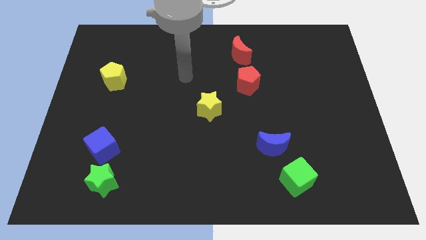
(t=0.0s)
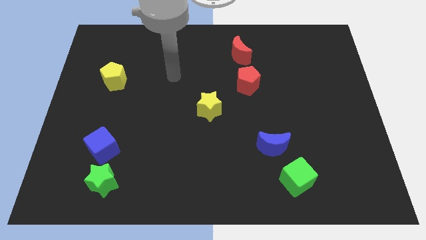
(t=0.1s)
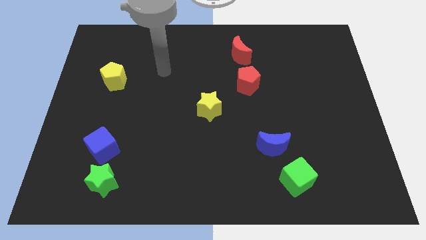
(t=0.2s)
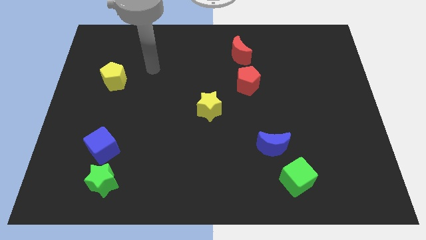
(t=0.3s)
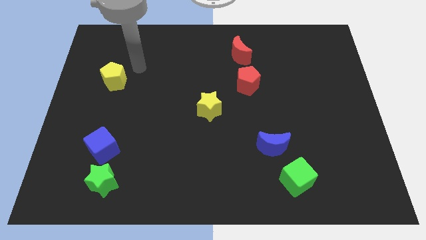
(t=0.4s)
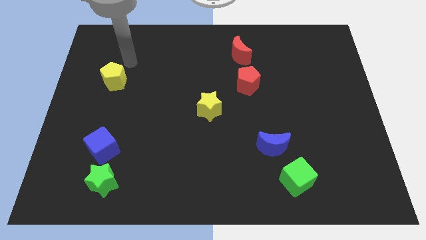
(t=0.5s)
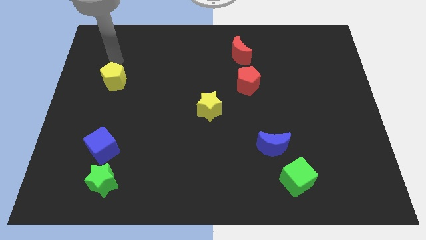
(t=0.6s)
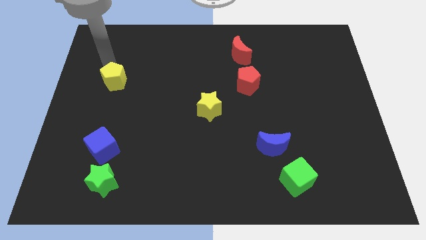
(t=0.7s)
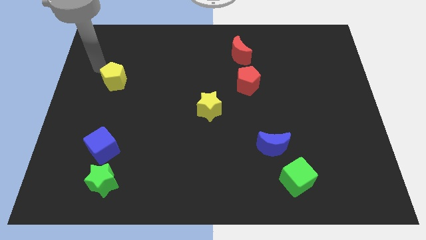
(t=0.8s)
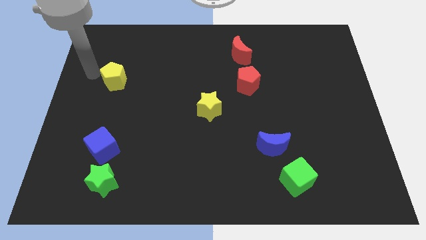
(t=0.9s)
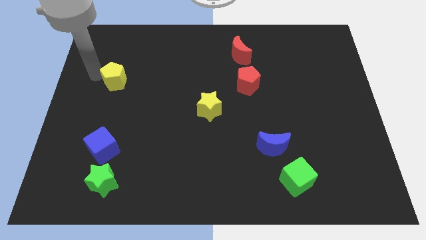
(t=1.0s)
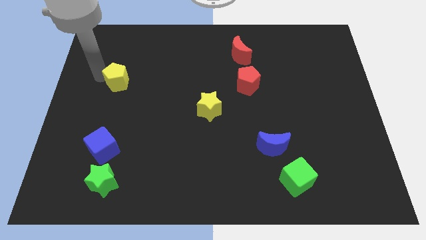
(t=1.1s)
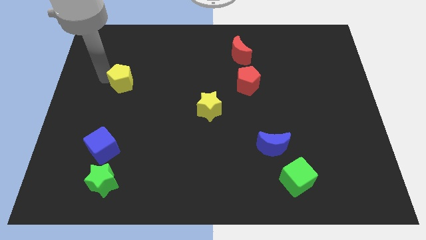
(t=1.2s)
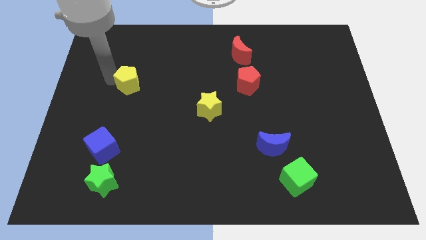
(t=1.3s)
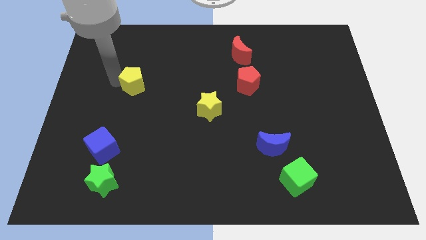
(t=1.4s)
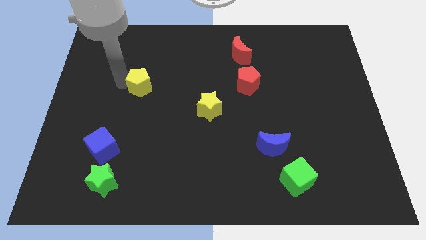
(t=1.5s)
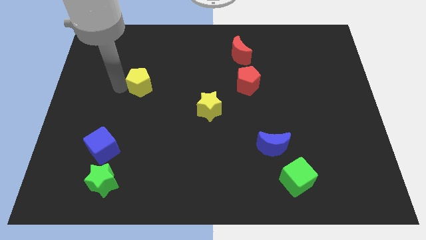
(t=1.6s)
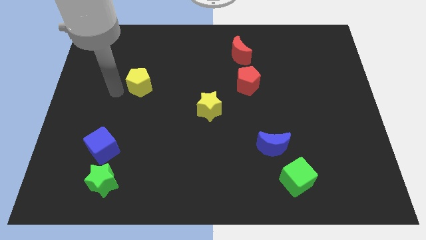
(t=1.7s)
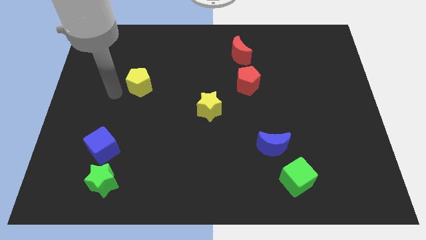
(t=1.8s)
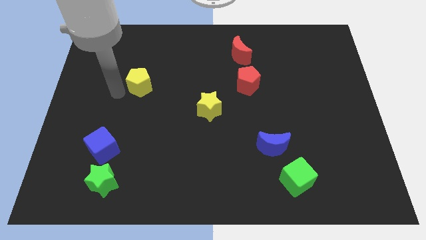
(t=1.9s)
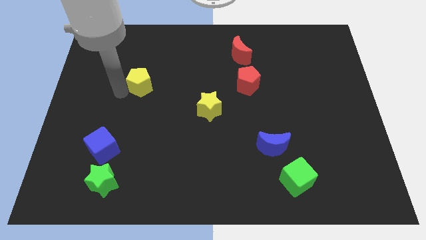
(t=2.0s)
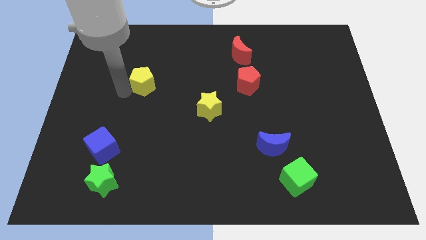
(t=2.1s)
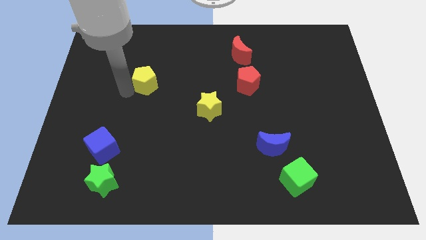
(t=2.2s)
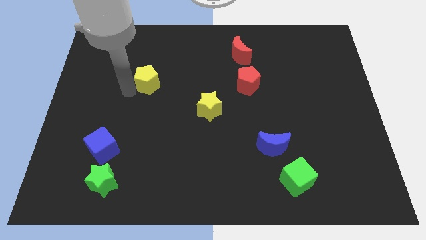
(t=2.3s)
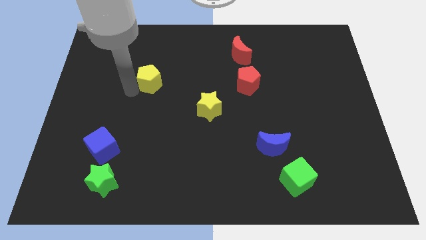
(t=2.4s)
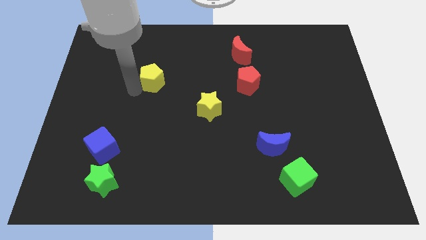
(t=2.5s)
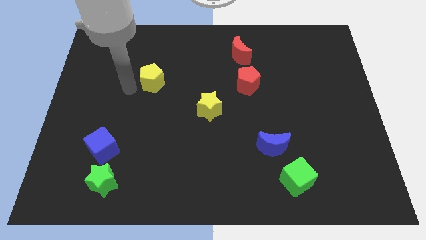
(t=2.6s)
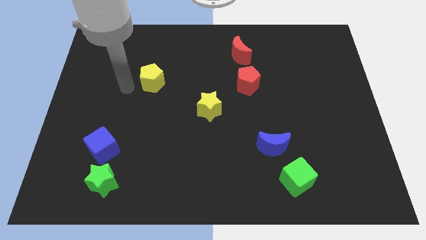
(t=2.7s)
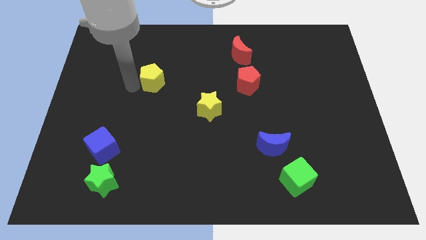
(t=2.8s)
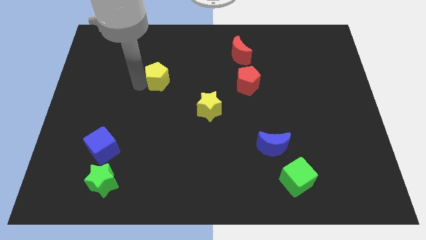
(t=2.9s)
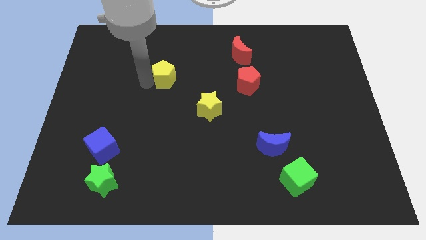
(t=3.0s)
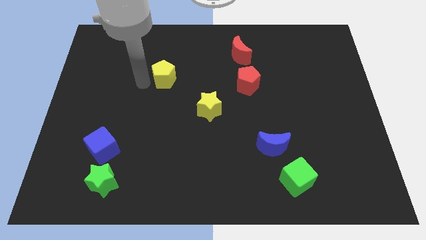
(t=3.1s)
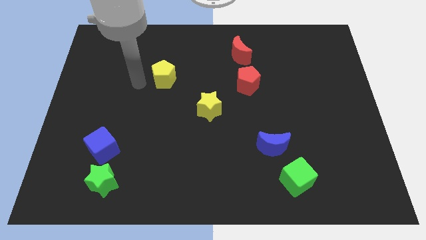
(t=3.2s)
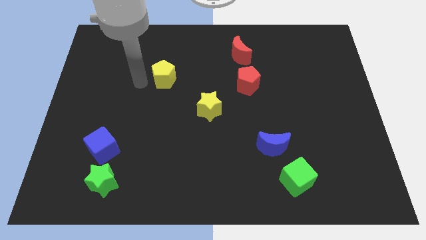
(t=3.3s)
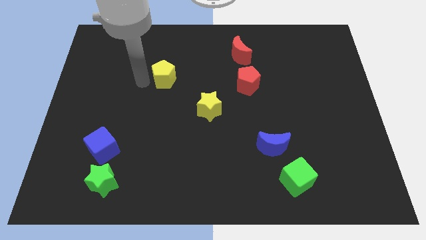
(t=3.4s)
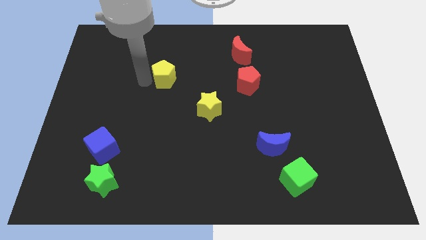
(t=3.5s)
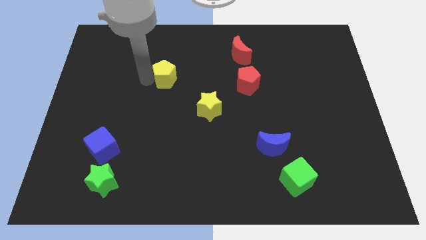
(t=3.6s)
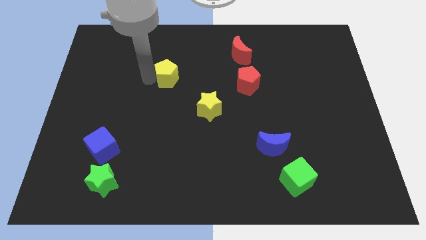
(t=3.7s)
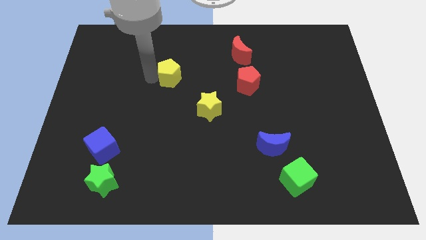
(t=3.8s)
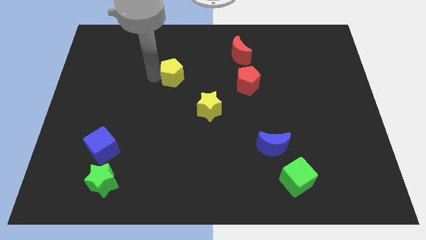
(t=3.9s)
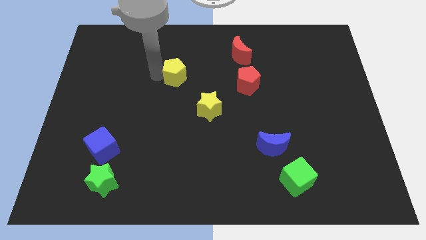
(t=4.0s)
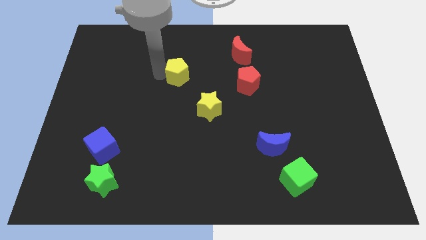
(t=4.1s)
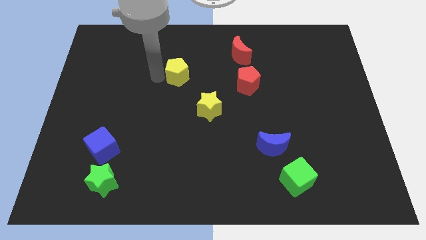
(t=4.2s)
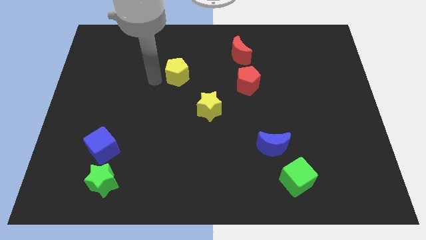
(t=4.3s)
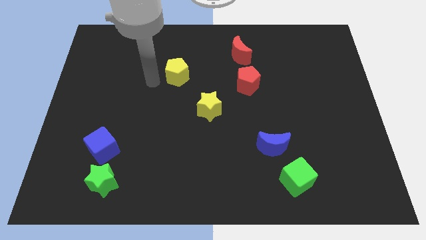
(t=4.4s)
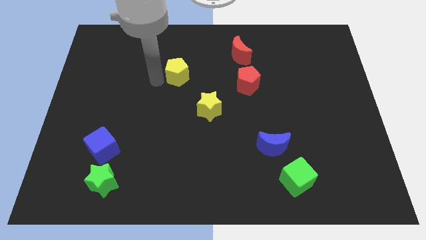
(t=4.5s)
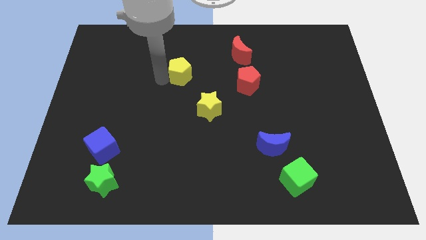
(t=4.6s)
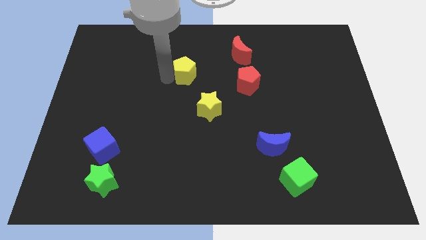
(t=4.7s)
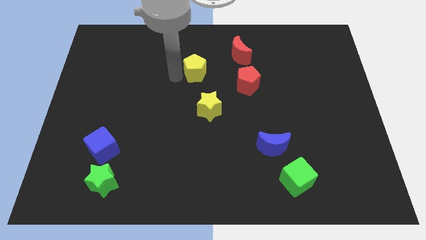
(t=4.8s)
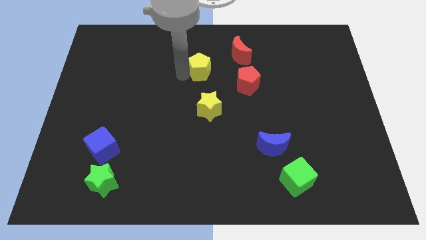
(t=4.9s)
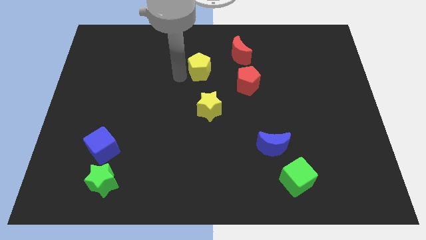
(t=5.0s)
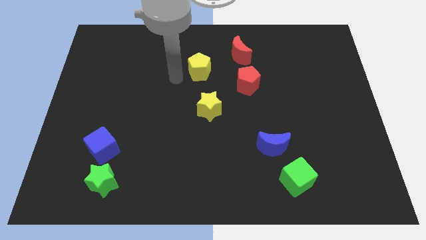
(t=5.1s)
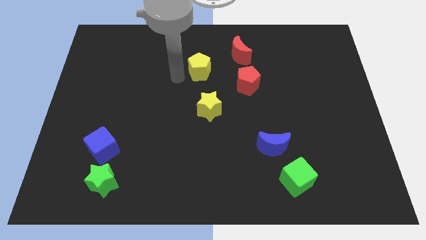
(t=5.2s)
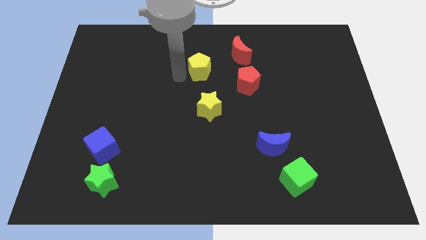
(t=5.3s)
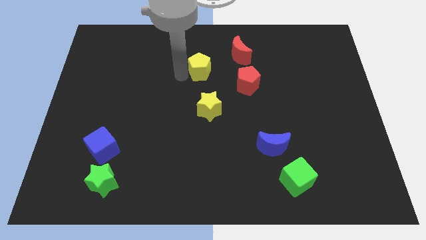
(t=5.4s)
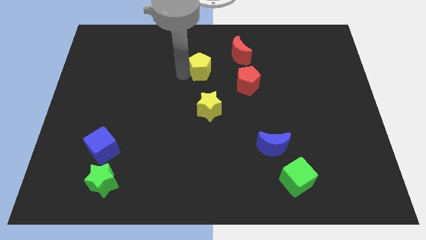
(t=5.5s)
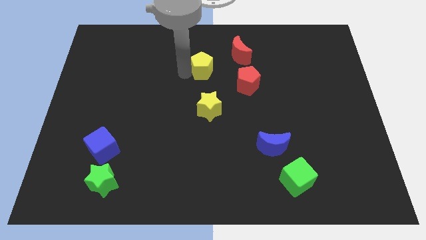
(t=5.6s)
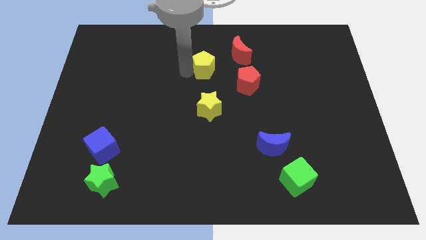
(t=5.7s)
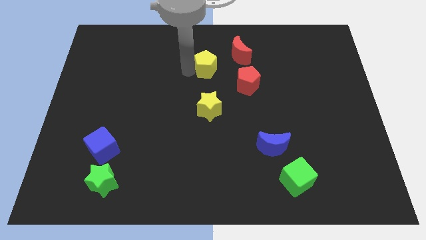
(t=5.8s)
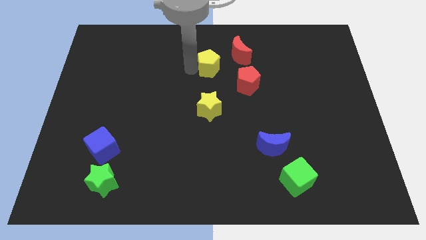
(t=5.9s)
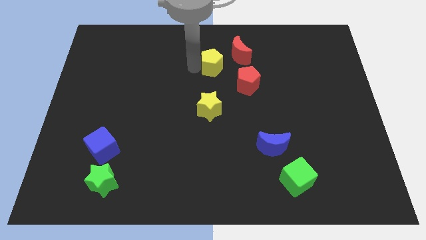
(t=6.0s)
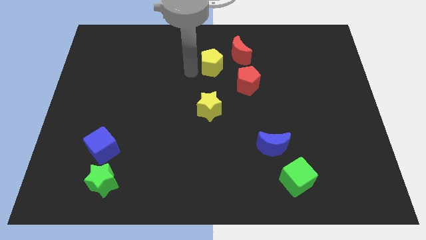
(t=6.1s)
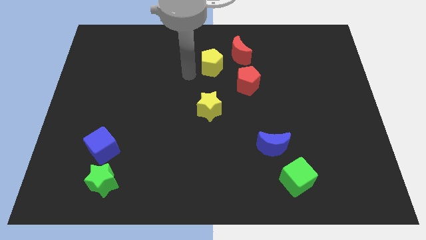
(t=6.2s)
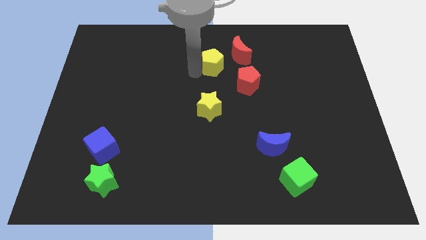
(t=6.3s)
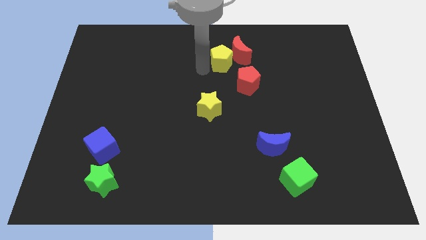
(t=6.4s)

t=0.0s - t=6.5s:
move the yellow pentagon next to the red moon
